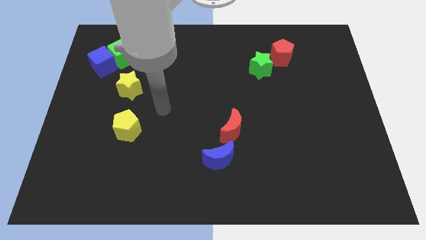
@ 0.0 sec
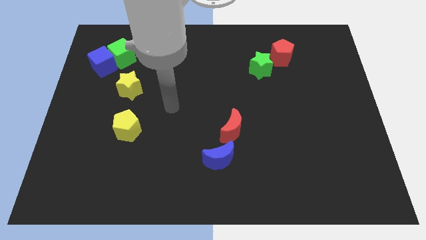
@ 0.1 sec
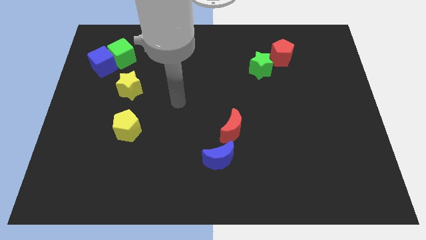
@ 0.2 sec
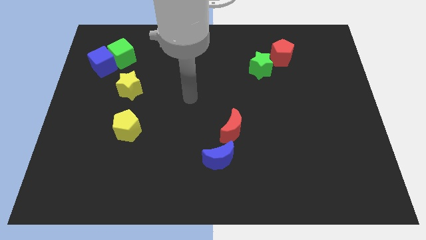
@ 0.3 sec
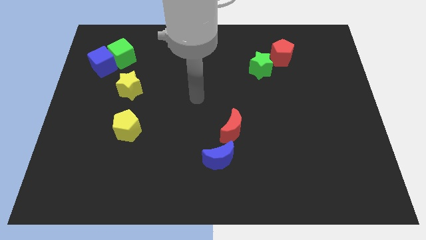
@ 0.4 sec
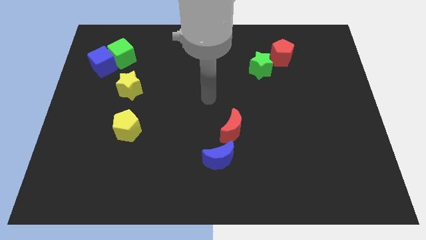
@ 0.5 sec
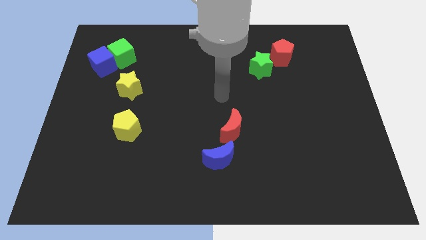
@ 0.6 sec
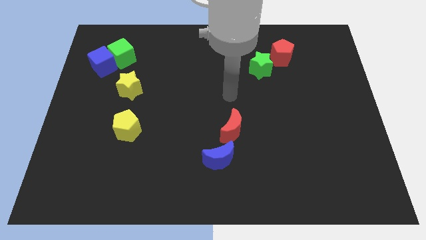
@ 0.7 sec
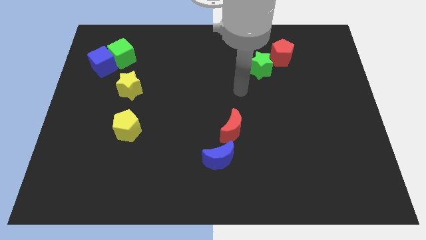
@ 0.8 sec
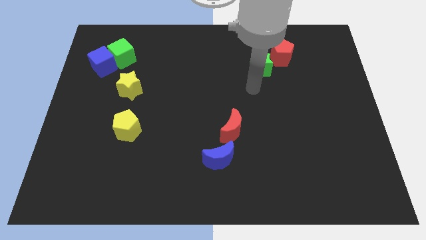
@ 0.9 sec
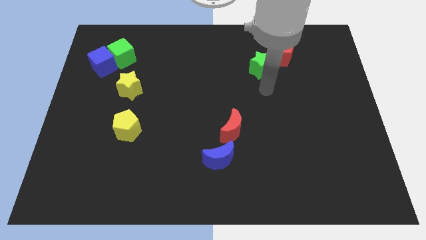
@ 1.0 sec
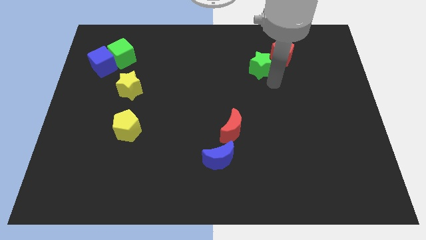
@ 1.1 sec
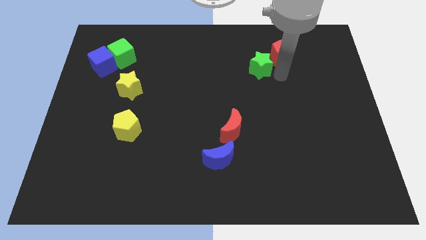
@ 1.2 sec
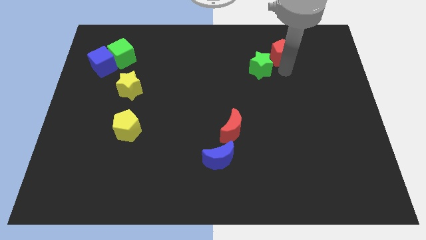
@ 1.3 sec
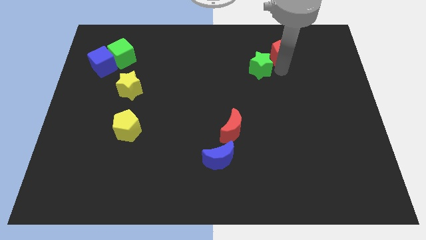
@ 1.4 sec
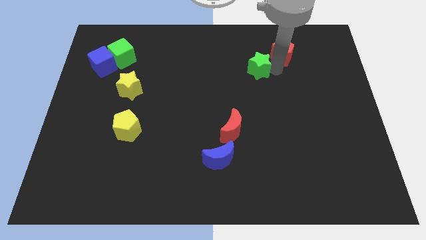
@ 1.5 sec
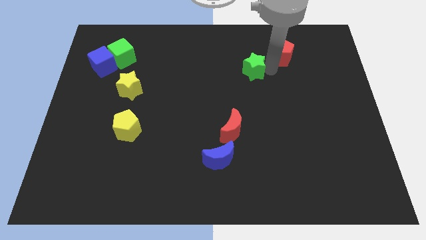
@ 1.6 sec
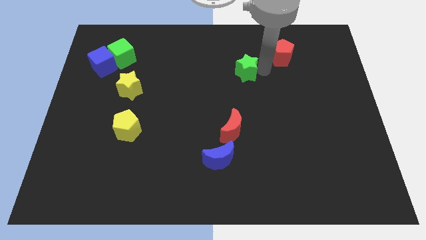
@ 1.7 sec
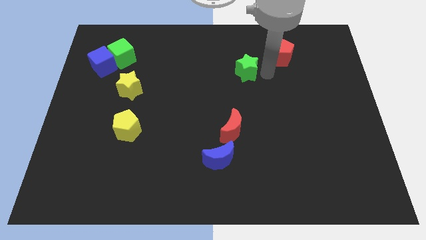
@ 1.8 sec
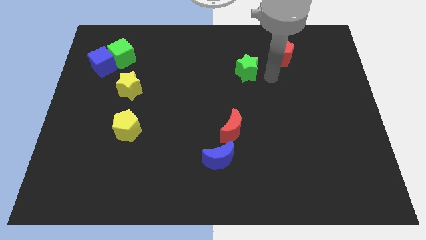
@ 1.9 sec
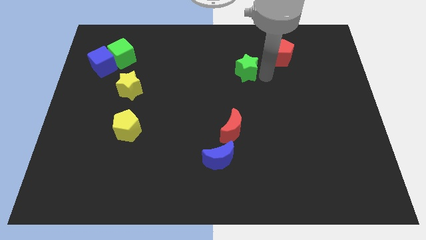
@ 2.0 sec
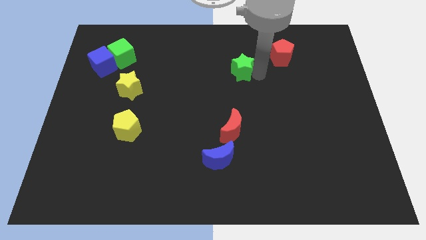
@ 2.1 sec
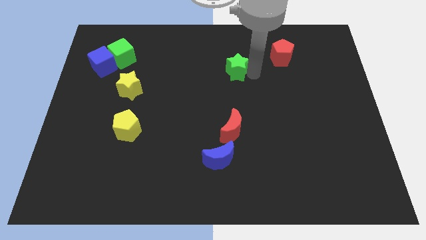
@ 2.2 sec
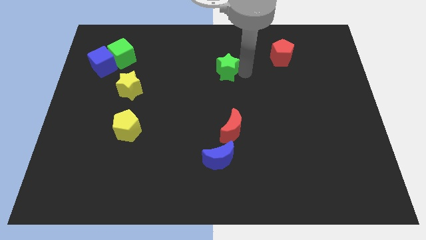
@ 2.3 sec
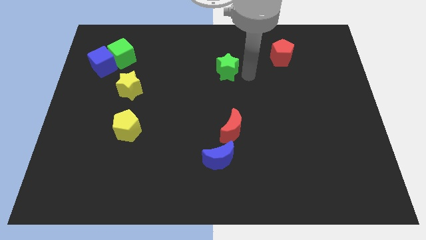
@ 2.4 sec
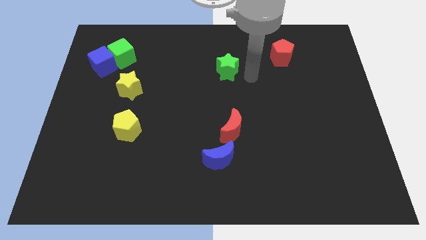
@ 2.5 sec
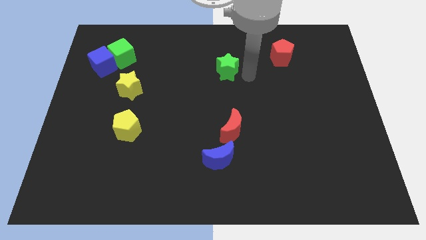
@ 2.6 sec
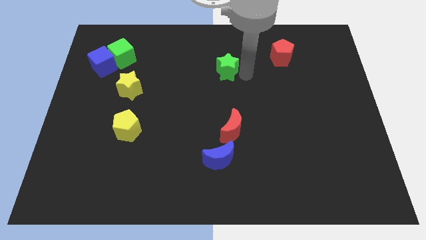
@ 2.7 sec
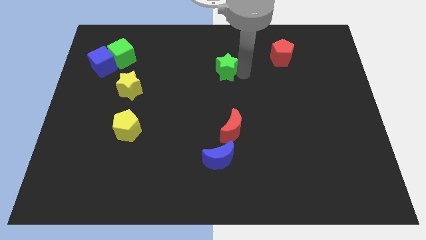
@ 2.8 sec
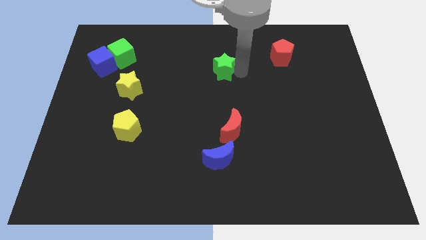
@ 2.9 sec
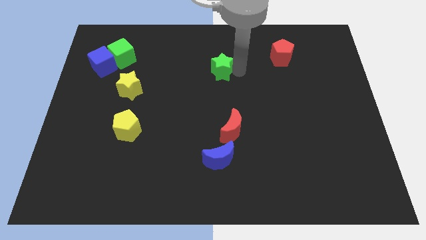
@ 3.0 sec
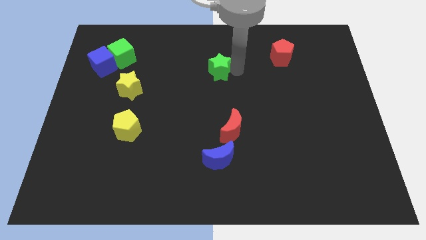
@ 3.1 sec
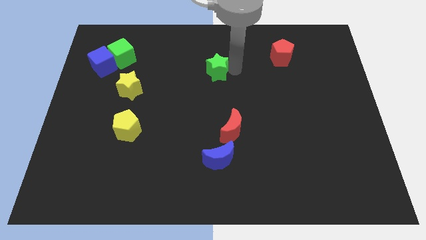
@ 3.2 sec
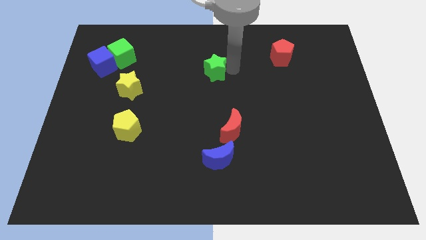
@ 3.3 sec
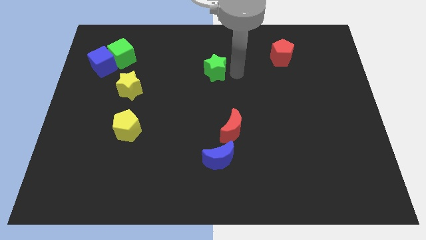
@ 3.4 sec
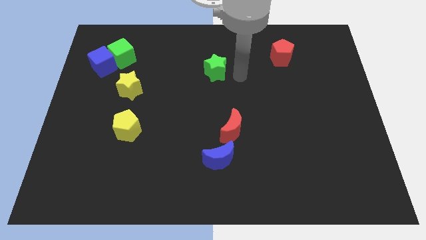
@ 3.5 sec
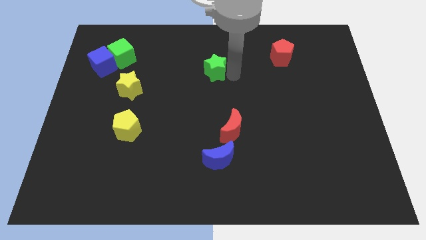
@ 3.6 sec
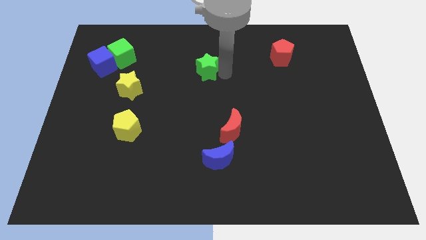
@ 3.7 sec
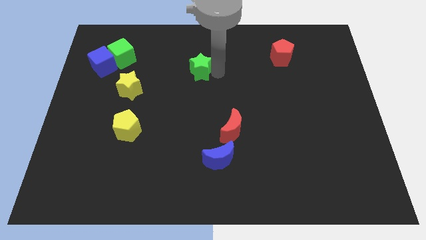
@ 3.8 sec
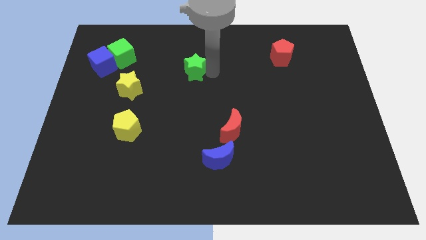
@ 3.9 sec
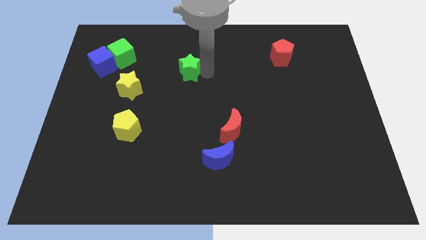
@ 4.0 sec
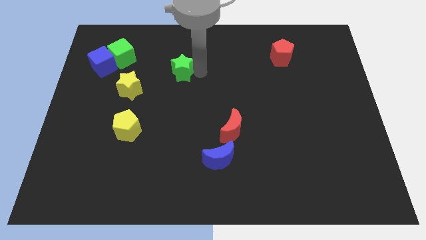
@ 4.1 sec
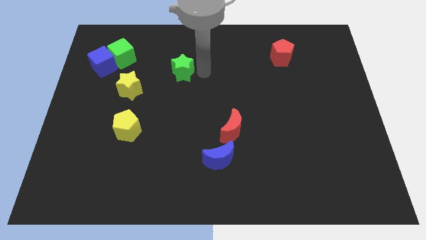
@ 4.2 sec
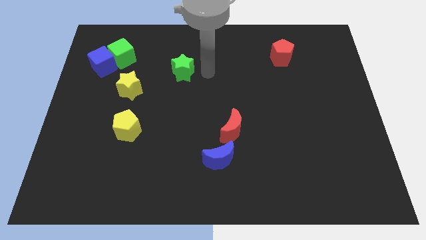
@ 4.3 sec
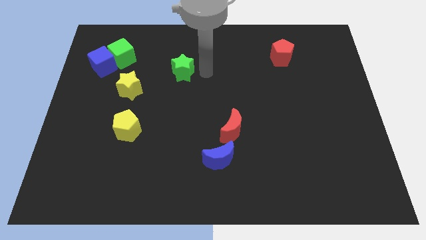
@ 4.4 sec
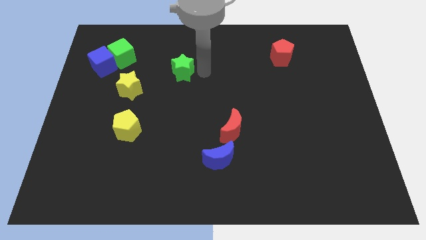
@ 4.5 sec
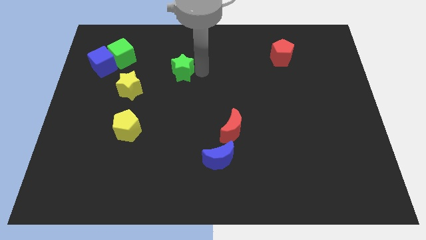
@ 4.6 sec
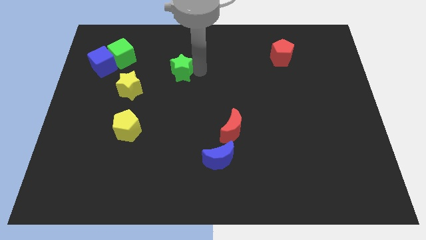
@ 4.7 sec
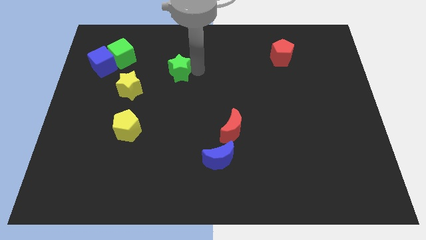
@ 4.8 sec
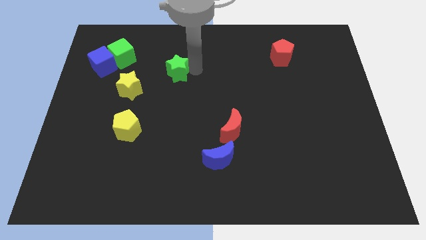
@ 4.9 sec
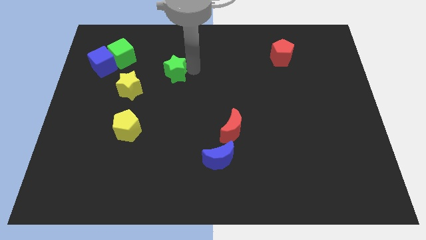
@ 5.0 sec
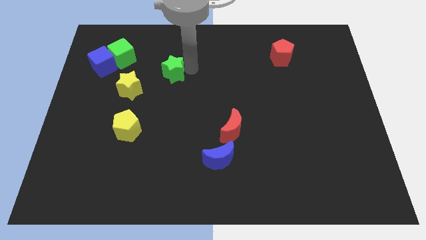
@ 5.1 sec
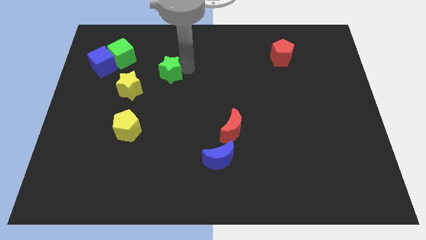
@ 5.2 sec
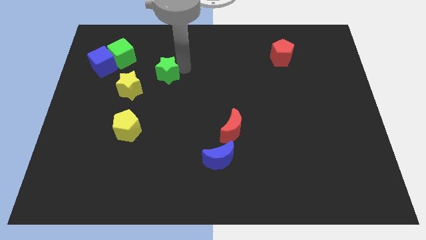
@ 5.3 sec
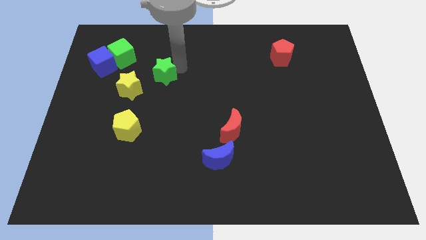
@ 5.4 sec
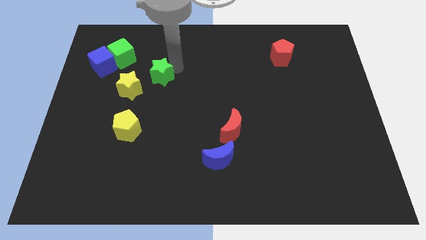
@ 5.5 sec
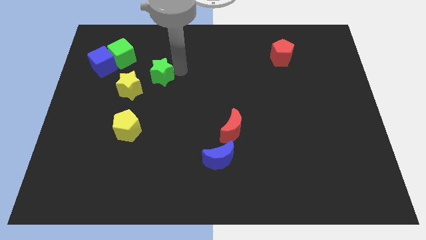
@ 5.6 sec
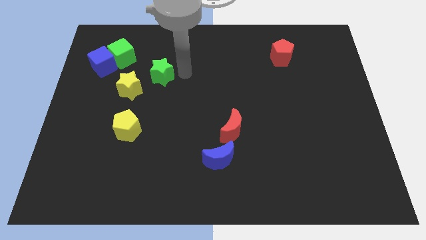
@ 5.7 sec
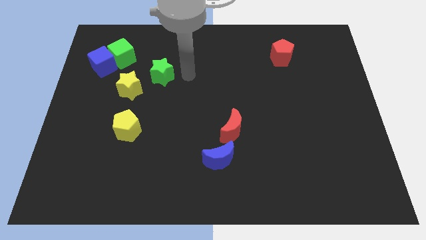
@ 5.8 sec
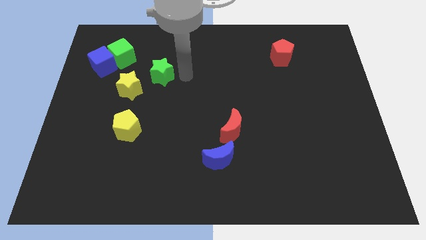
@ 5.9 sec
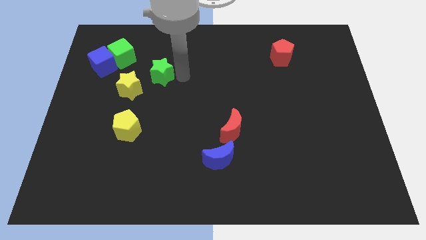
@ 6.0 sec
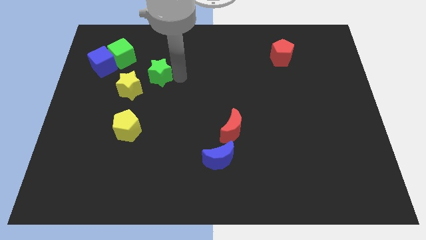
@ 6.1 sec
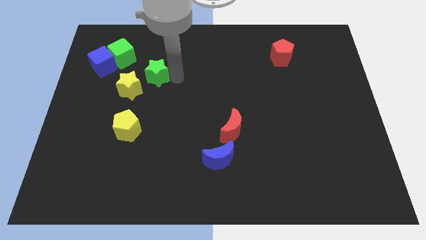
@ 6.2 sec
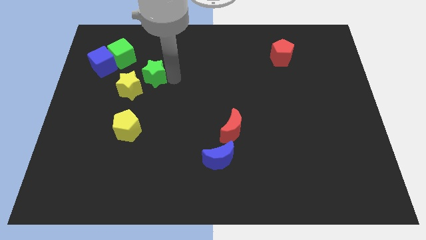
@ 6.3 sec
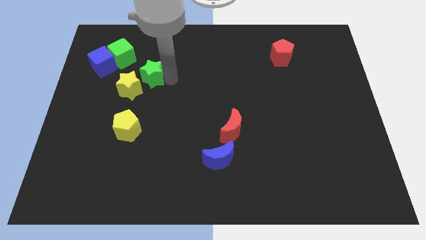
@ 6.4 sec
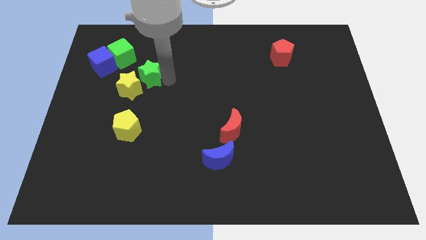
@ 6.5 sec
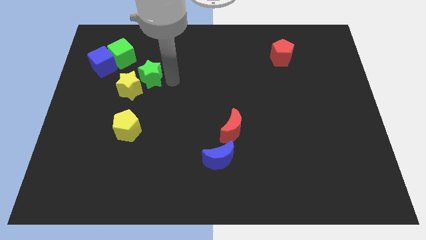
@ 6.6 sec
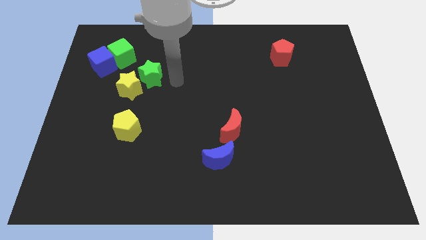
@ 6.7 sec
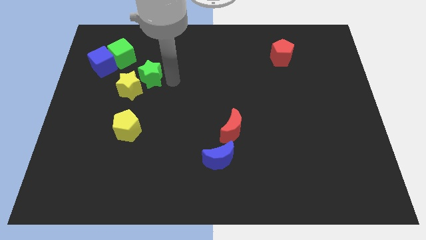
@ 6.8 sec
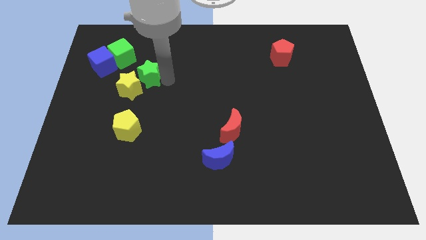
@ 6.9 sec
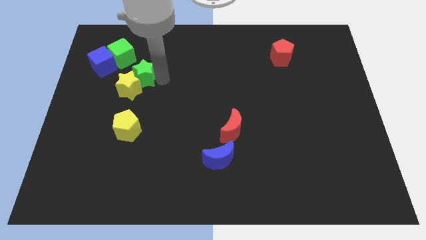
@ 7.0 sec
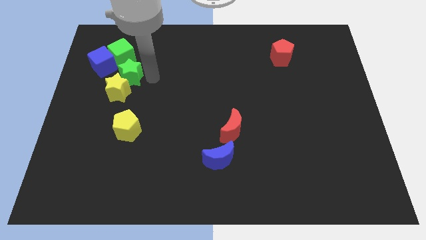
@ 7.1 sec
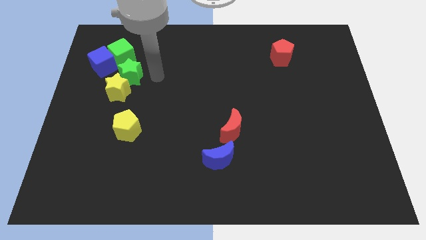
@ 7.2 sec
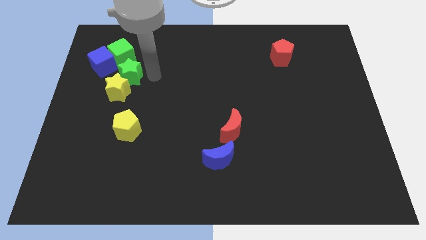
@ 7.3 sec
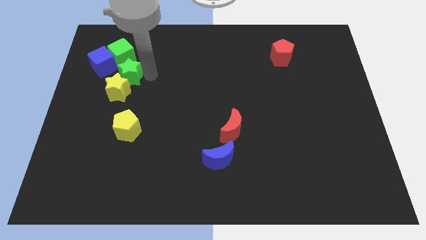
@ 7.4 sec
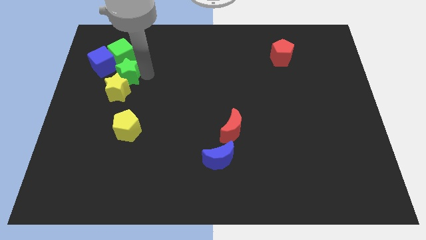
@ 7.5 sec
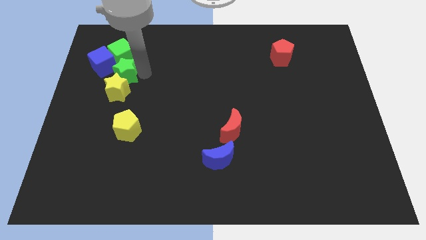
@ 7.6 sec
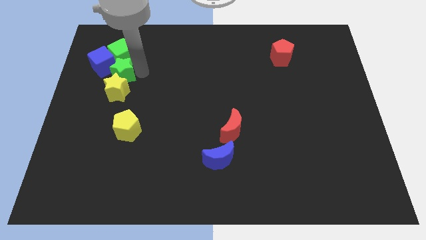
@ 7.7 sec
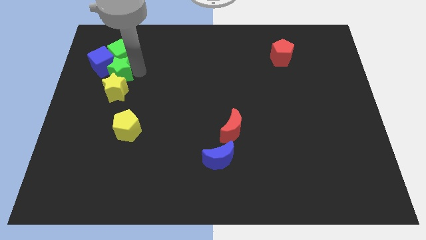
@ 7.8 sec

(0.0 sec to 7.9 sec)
push the green star towards the blue cube

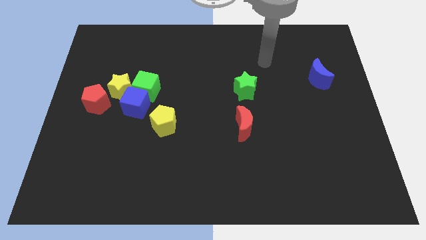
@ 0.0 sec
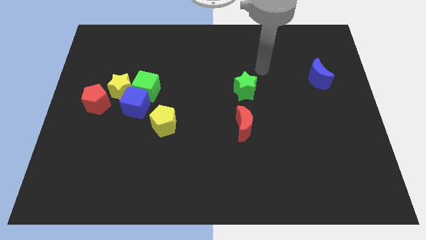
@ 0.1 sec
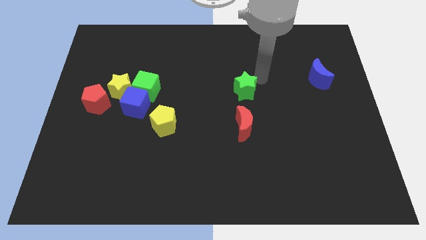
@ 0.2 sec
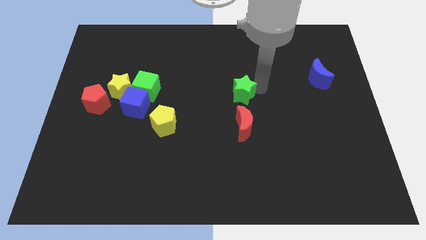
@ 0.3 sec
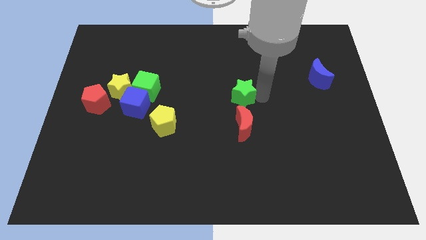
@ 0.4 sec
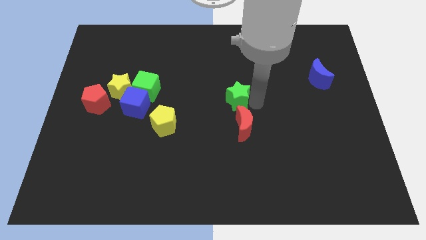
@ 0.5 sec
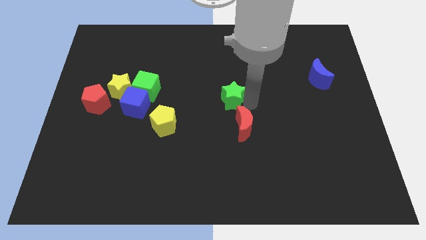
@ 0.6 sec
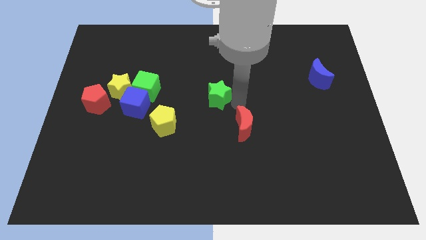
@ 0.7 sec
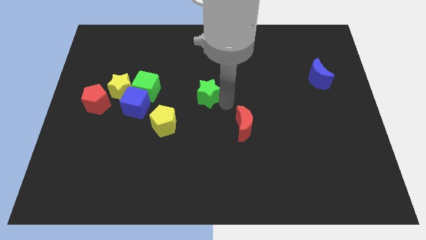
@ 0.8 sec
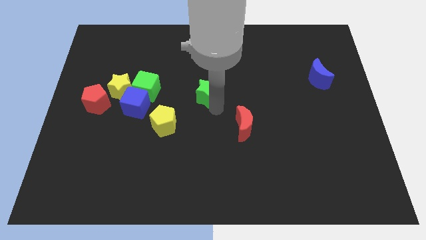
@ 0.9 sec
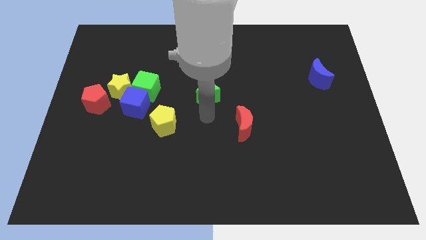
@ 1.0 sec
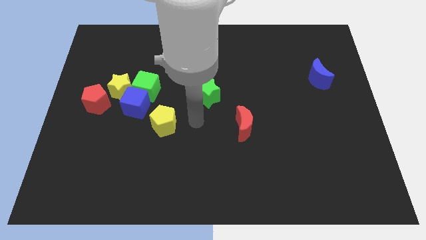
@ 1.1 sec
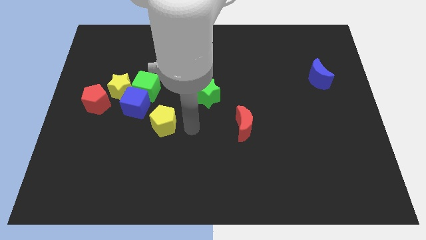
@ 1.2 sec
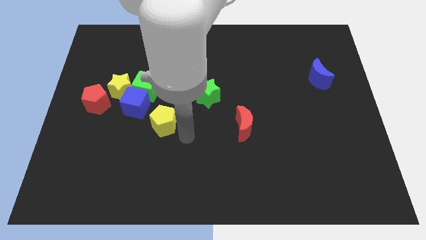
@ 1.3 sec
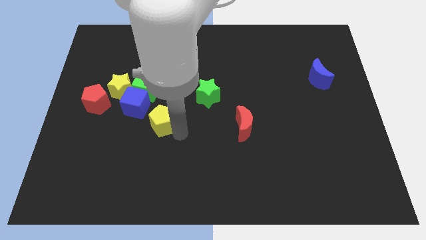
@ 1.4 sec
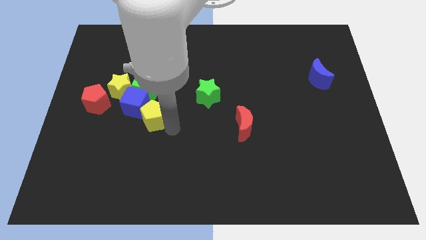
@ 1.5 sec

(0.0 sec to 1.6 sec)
move the yellow pentagon next to the blue cube
